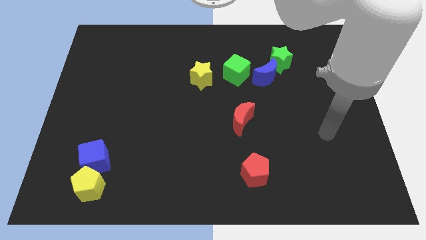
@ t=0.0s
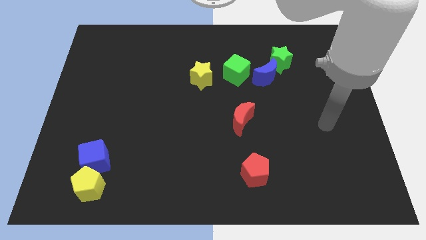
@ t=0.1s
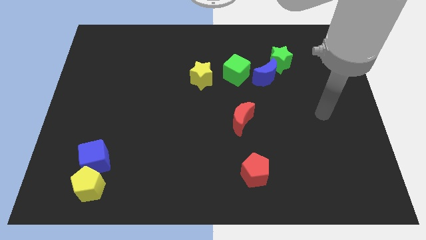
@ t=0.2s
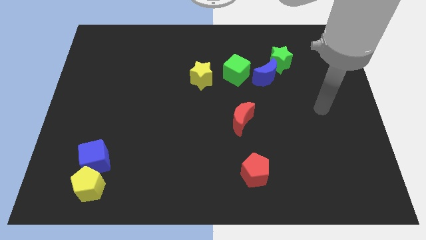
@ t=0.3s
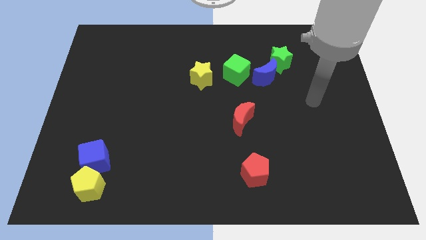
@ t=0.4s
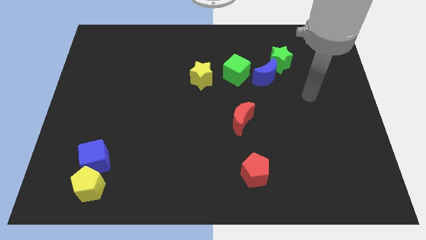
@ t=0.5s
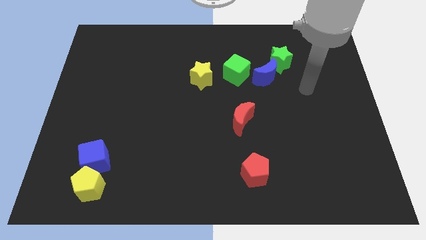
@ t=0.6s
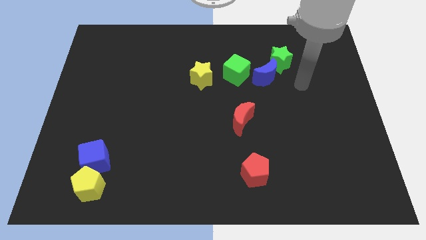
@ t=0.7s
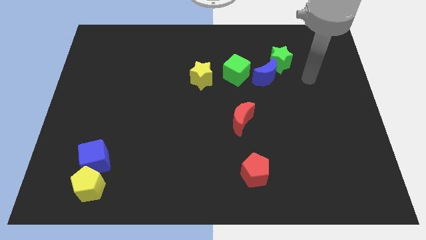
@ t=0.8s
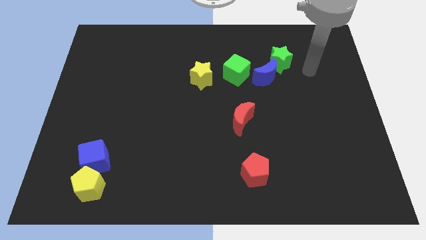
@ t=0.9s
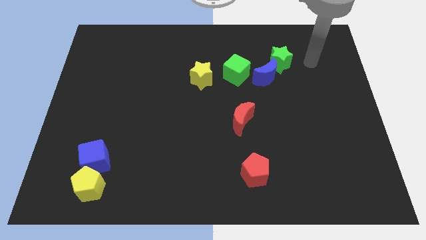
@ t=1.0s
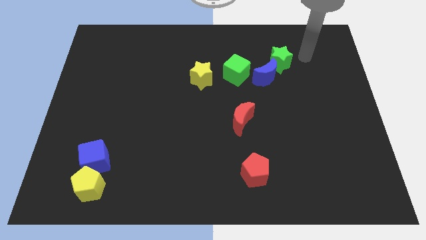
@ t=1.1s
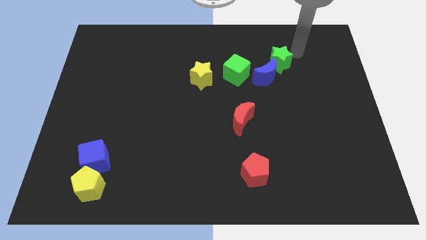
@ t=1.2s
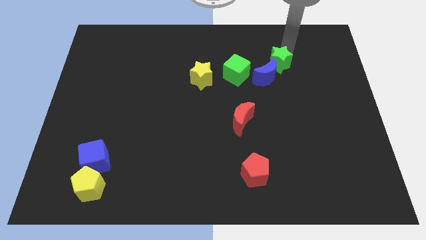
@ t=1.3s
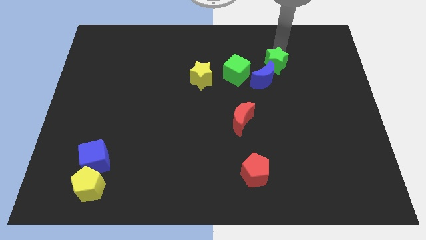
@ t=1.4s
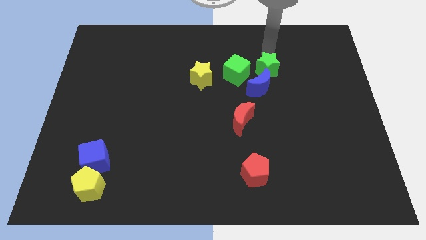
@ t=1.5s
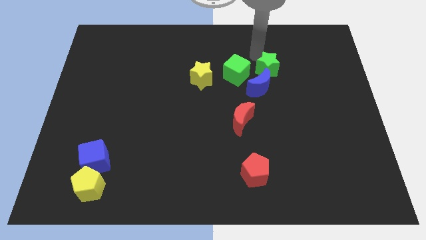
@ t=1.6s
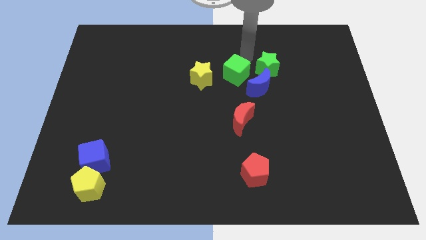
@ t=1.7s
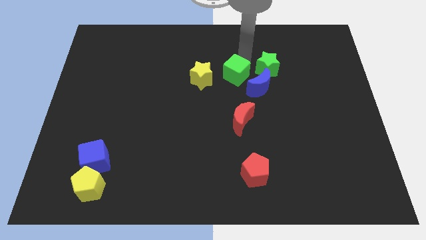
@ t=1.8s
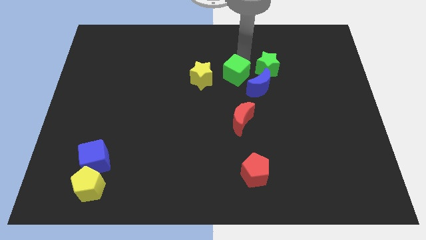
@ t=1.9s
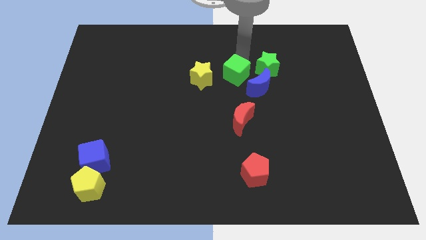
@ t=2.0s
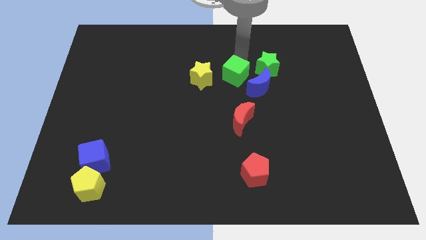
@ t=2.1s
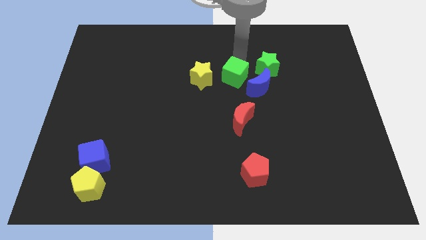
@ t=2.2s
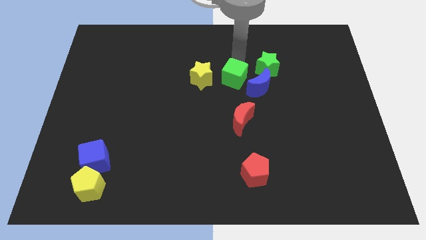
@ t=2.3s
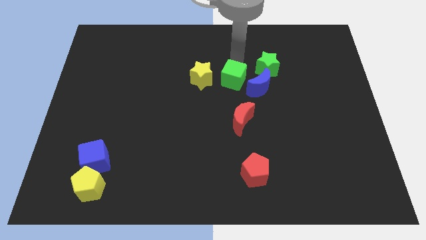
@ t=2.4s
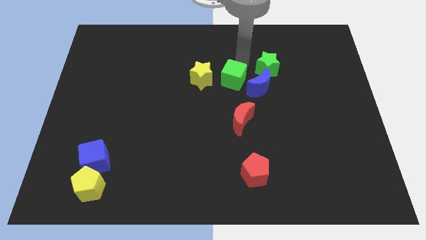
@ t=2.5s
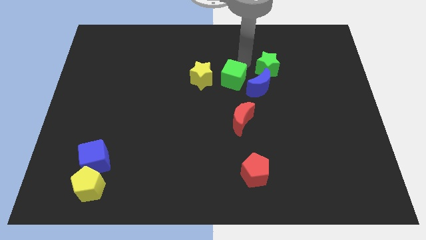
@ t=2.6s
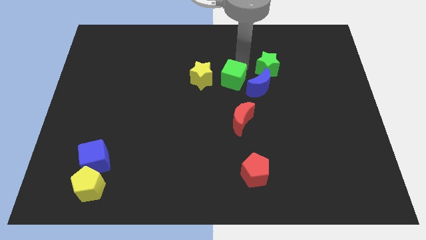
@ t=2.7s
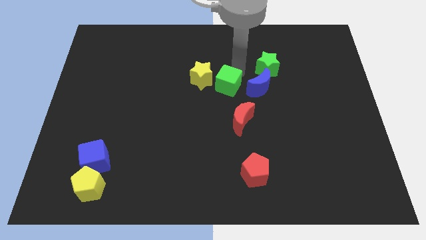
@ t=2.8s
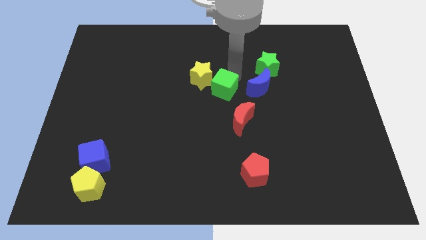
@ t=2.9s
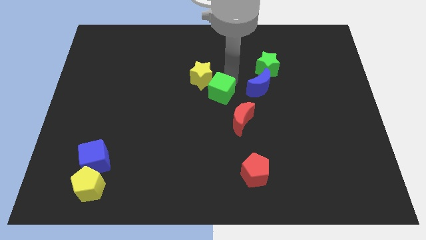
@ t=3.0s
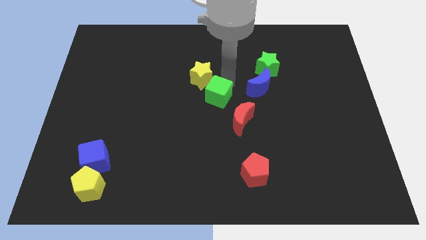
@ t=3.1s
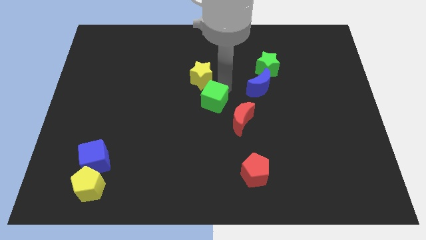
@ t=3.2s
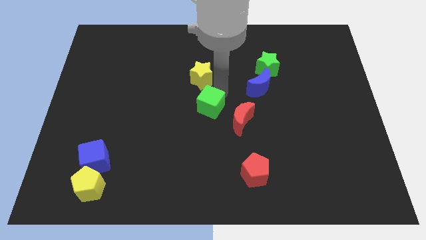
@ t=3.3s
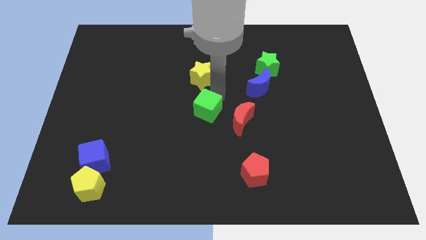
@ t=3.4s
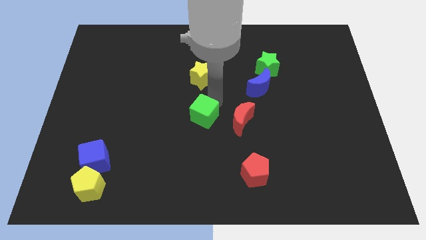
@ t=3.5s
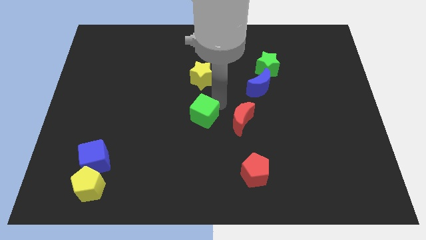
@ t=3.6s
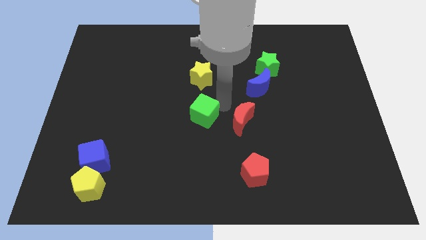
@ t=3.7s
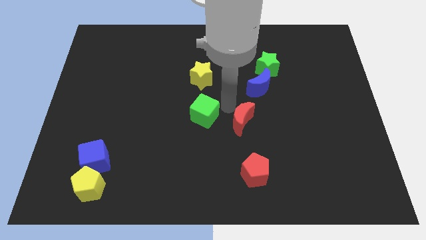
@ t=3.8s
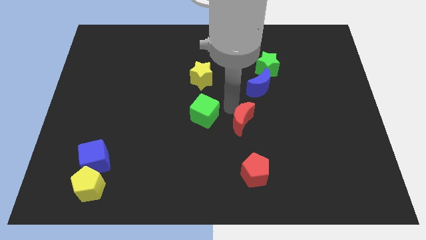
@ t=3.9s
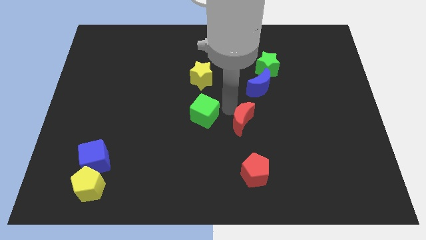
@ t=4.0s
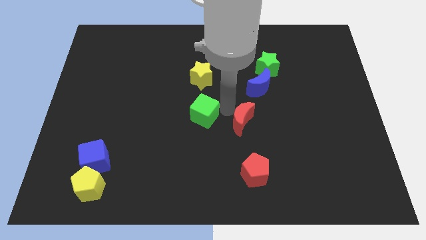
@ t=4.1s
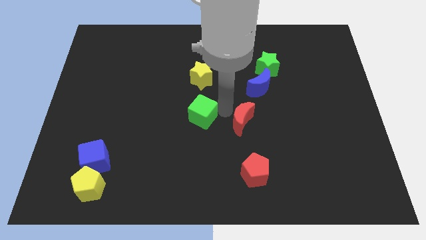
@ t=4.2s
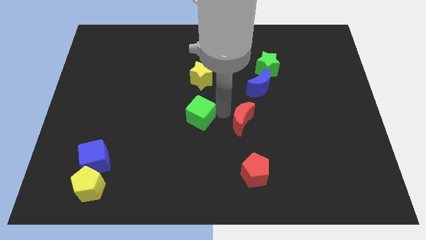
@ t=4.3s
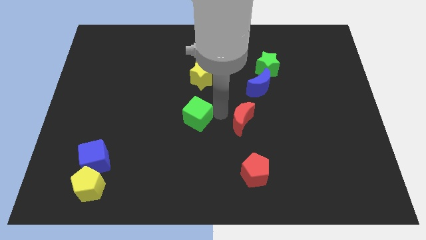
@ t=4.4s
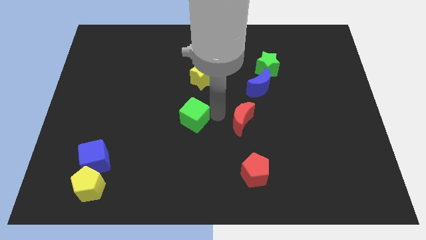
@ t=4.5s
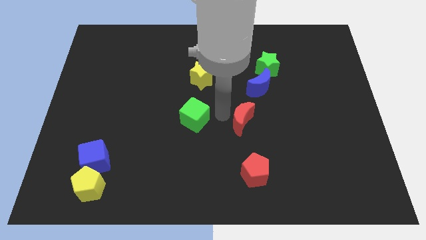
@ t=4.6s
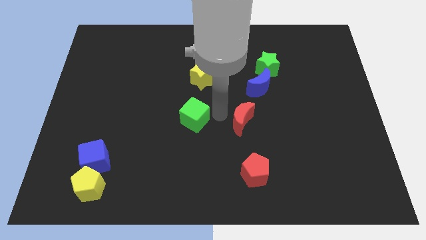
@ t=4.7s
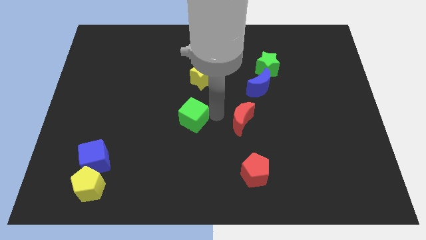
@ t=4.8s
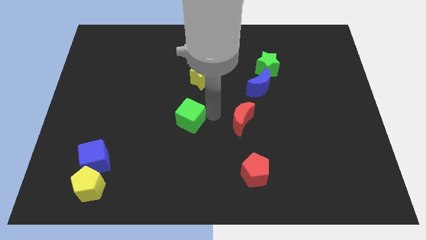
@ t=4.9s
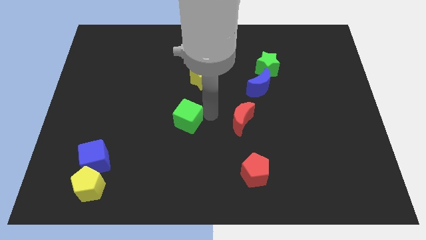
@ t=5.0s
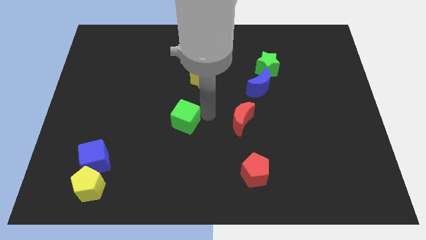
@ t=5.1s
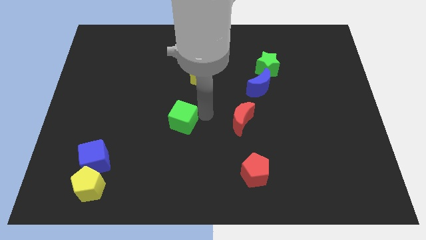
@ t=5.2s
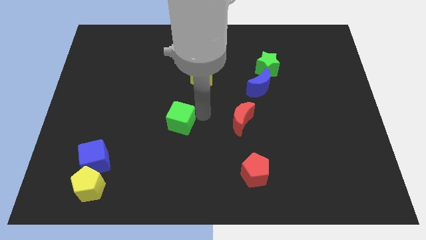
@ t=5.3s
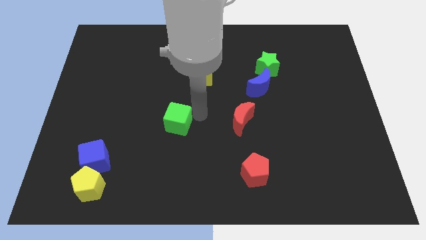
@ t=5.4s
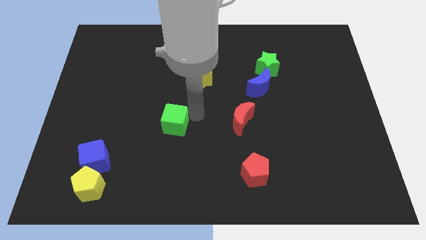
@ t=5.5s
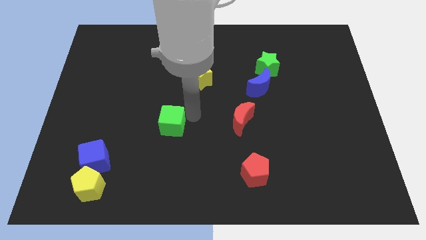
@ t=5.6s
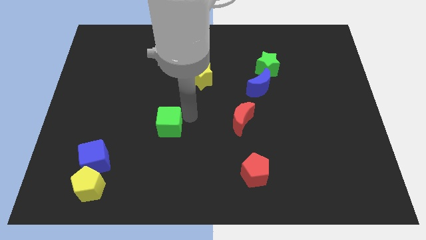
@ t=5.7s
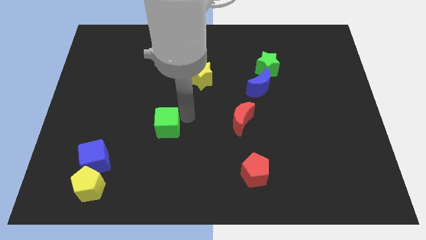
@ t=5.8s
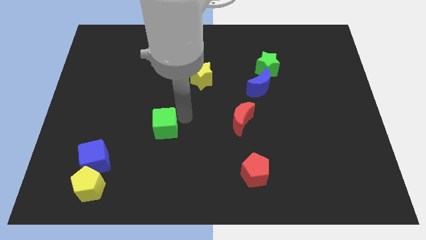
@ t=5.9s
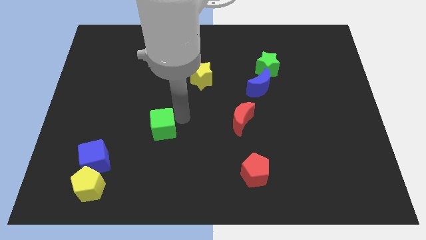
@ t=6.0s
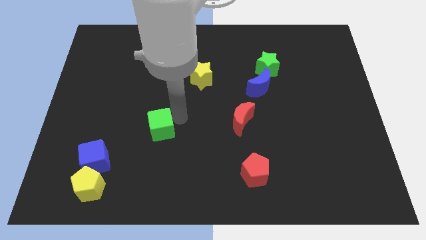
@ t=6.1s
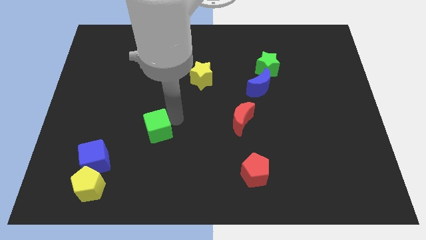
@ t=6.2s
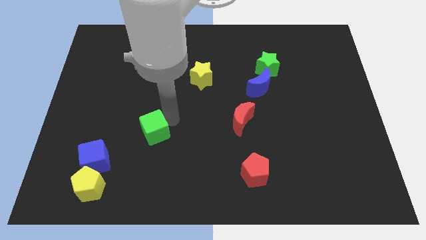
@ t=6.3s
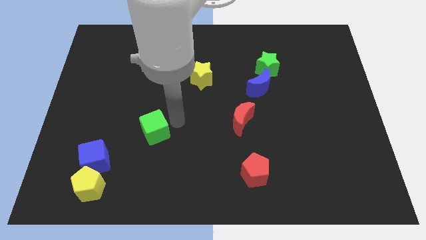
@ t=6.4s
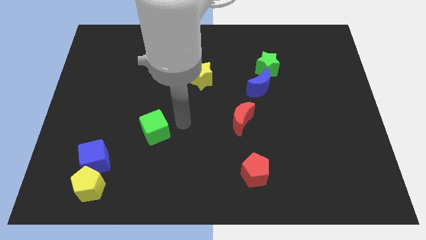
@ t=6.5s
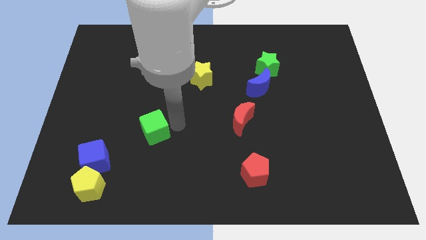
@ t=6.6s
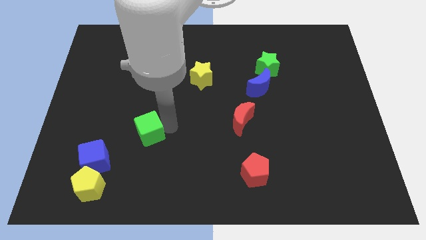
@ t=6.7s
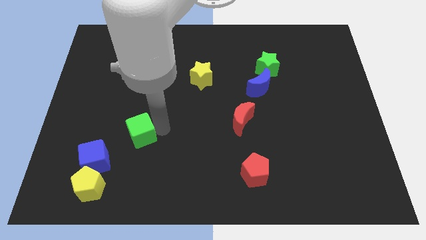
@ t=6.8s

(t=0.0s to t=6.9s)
slide the green cube to the top right of the blue cube
